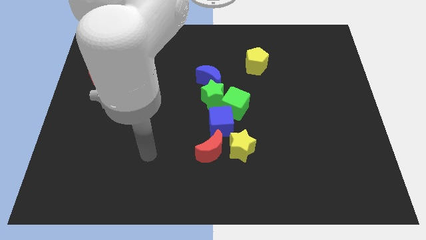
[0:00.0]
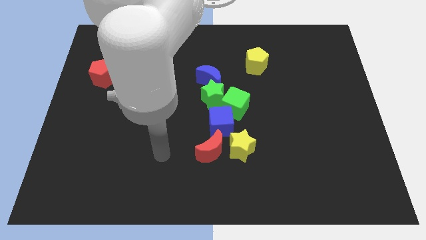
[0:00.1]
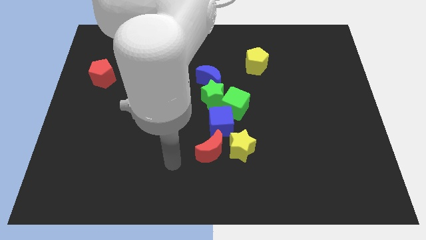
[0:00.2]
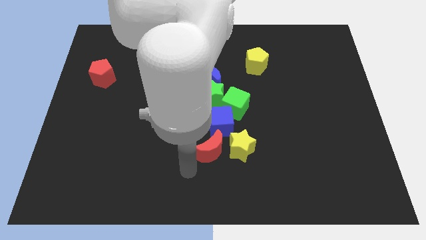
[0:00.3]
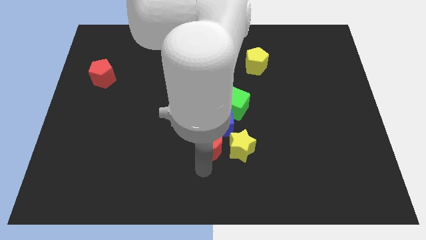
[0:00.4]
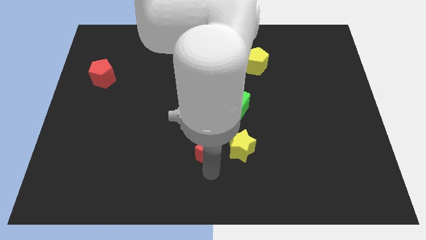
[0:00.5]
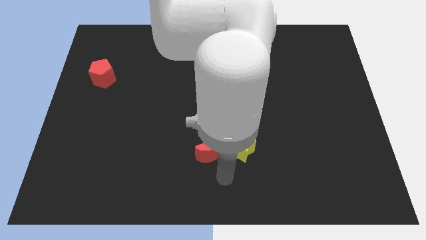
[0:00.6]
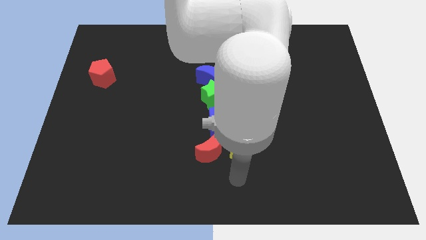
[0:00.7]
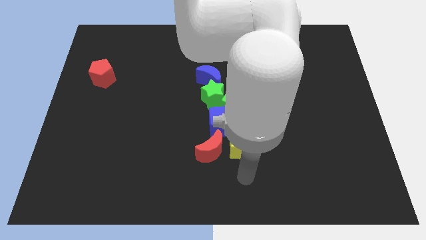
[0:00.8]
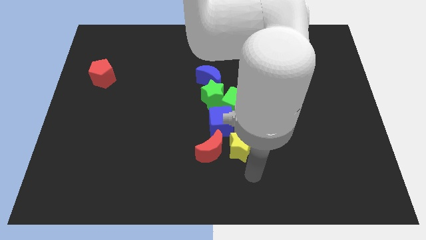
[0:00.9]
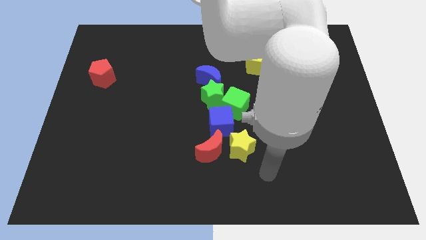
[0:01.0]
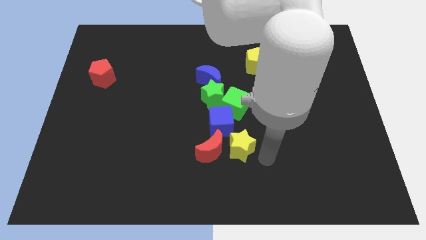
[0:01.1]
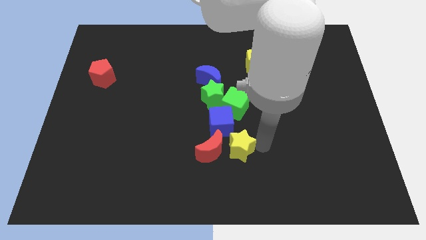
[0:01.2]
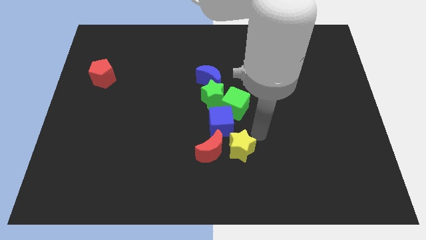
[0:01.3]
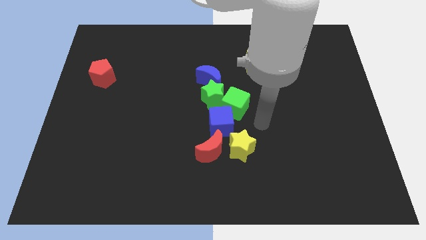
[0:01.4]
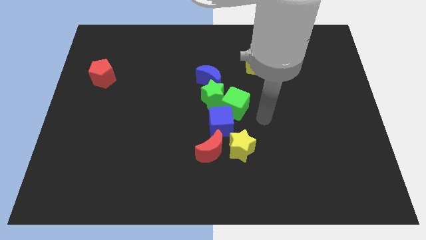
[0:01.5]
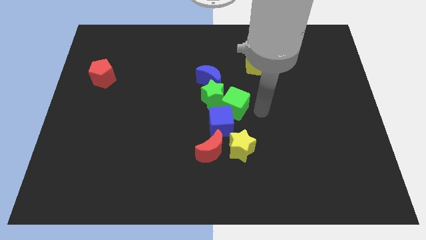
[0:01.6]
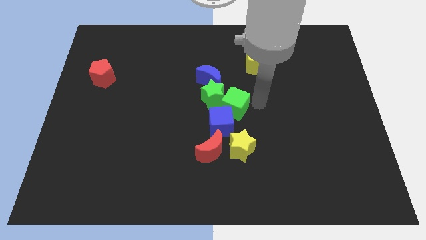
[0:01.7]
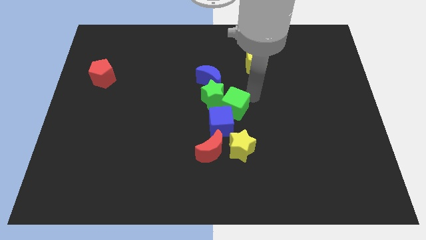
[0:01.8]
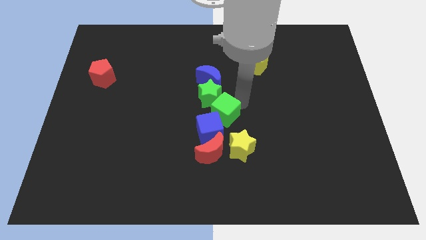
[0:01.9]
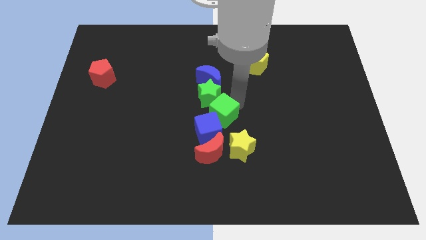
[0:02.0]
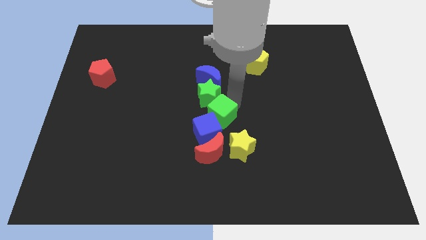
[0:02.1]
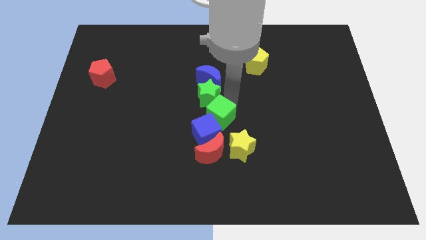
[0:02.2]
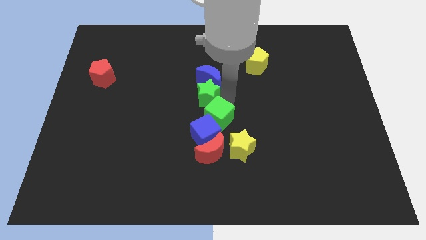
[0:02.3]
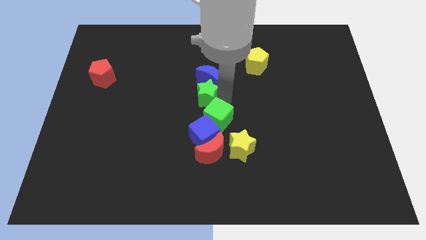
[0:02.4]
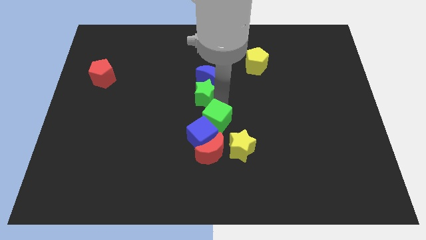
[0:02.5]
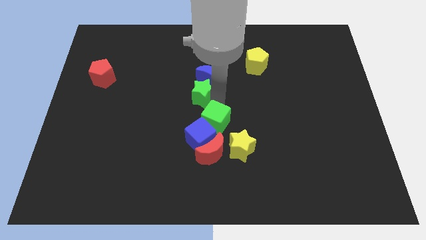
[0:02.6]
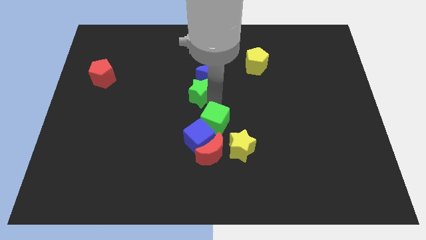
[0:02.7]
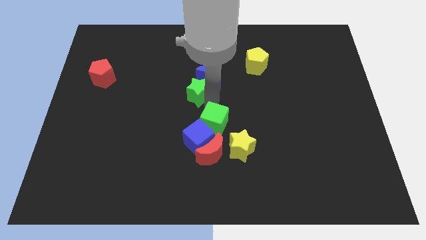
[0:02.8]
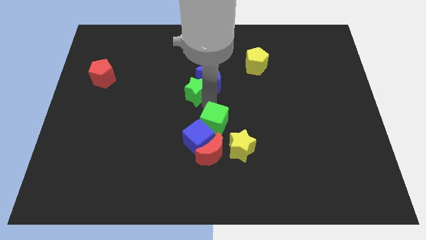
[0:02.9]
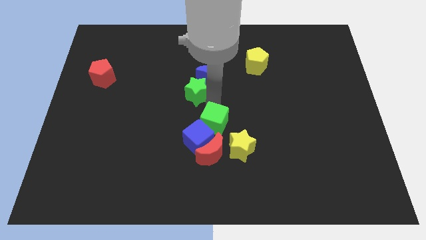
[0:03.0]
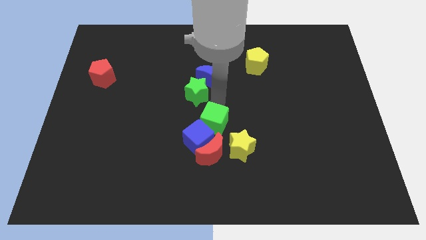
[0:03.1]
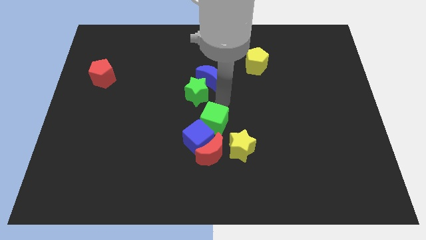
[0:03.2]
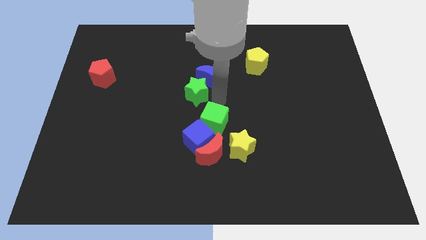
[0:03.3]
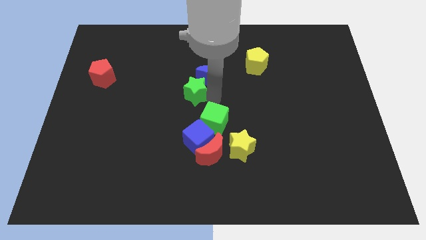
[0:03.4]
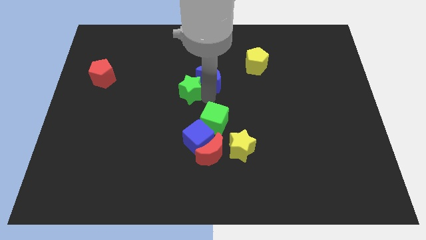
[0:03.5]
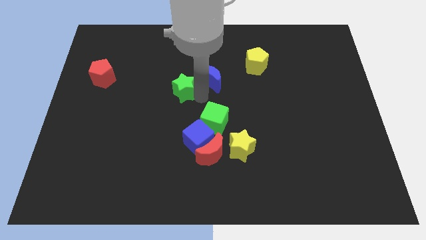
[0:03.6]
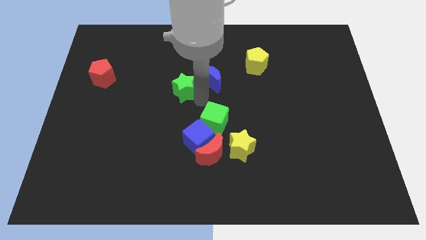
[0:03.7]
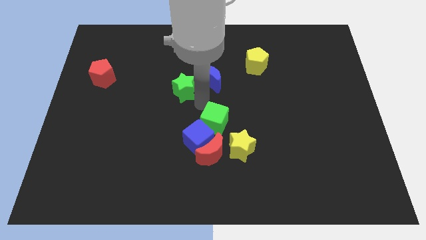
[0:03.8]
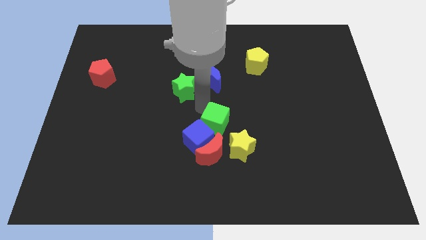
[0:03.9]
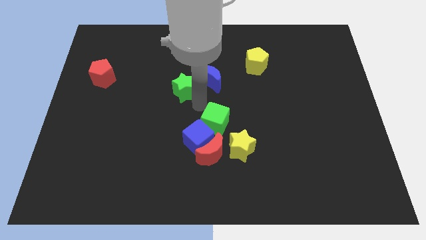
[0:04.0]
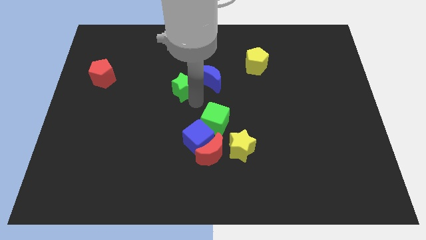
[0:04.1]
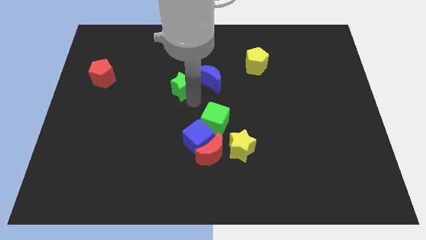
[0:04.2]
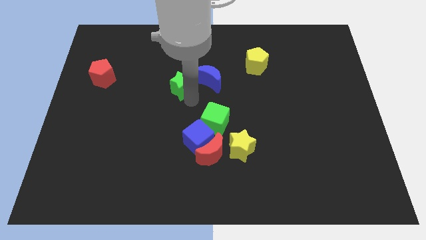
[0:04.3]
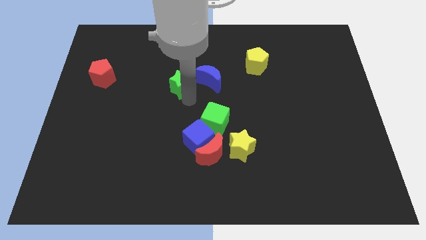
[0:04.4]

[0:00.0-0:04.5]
separate the green star from the clump

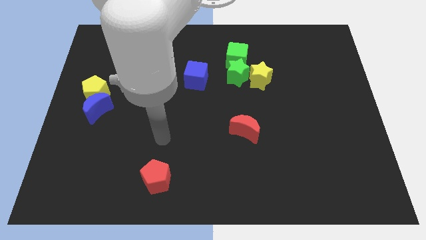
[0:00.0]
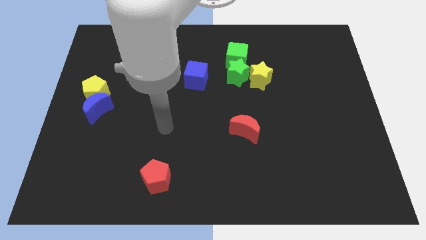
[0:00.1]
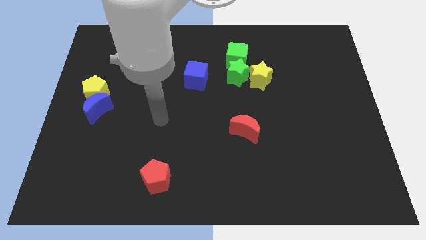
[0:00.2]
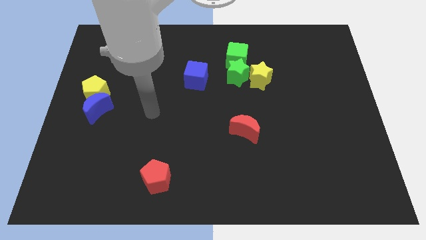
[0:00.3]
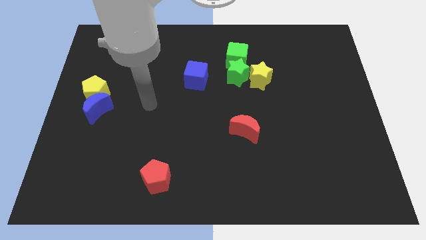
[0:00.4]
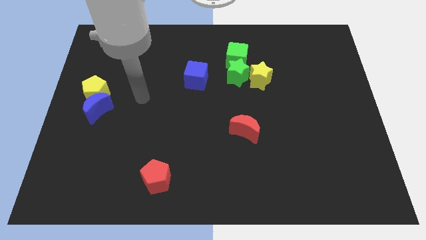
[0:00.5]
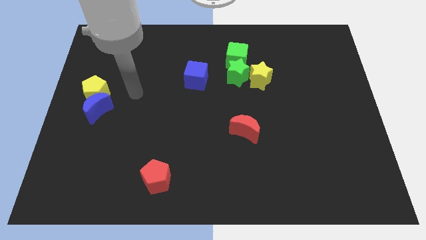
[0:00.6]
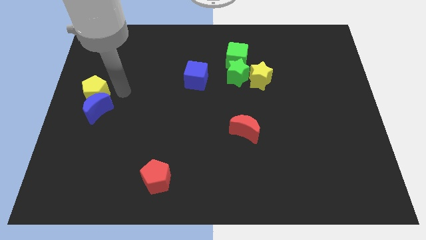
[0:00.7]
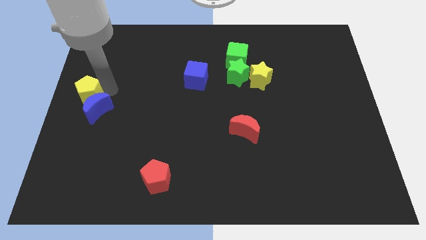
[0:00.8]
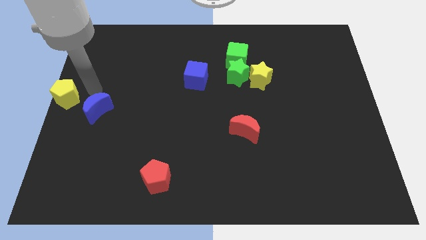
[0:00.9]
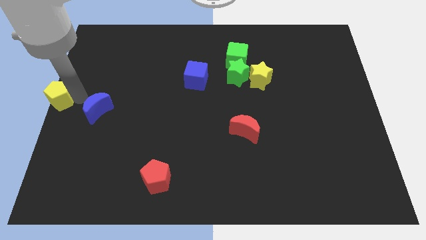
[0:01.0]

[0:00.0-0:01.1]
separate the blue moon from the yellow pentagon

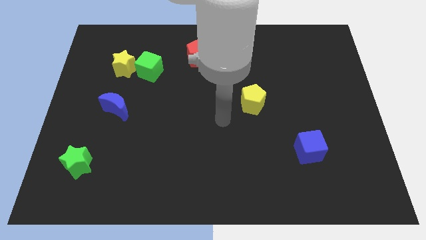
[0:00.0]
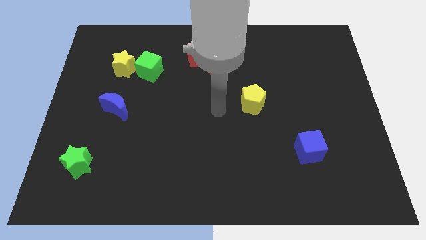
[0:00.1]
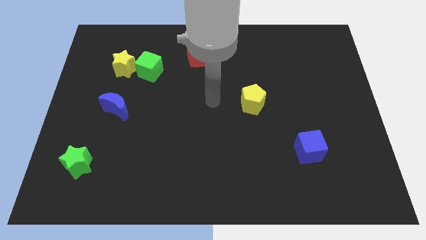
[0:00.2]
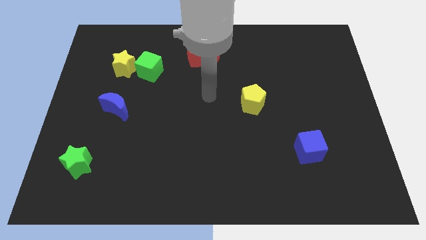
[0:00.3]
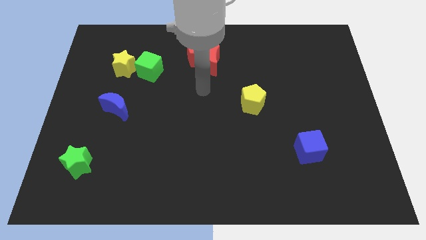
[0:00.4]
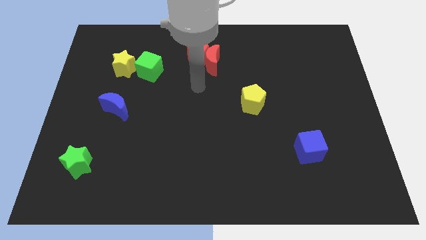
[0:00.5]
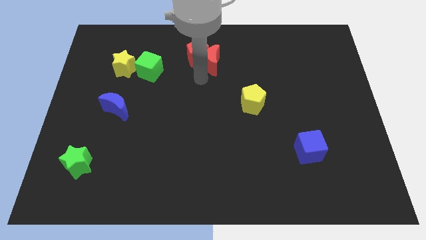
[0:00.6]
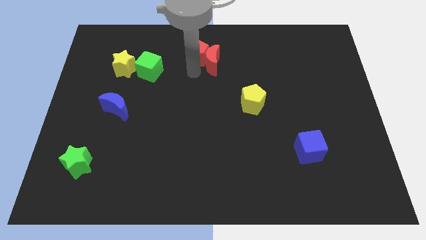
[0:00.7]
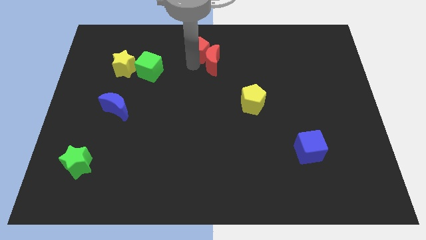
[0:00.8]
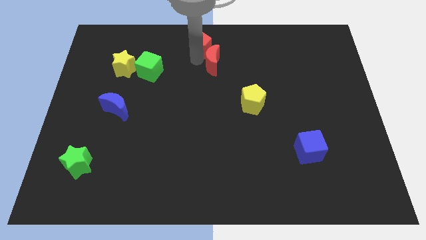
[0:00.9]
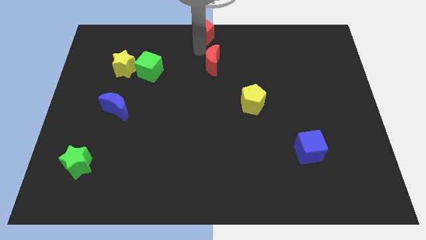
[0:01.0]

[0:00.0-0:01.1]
pull the red moon apart from the red pentagon

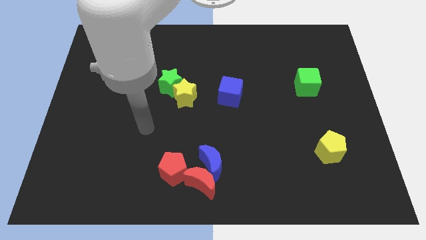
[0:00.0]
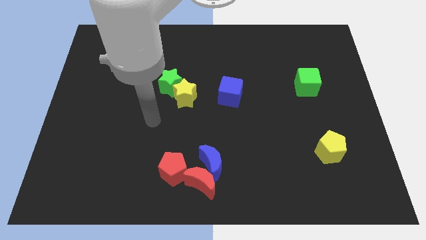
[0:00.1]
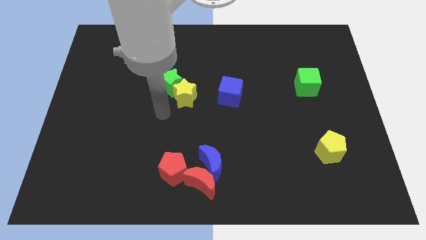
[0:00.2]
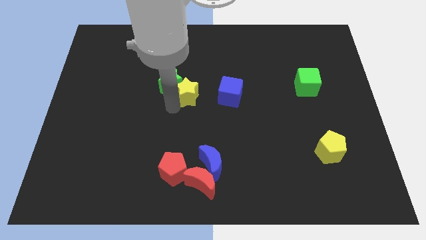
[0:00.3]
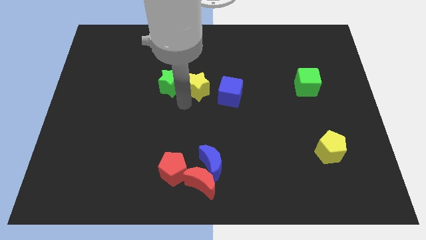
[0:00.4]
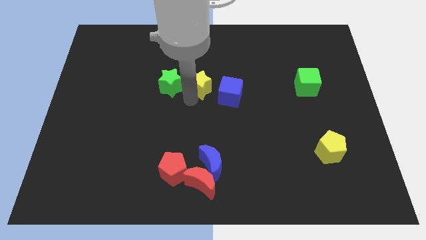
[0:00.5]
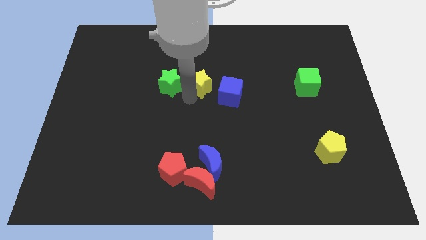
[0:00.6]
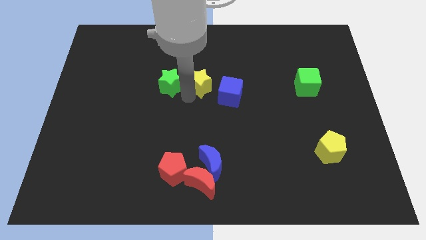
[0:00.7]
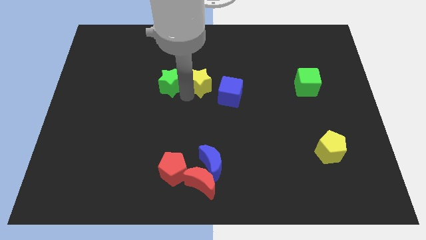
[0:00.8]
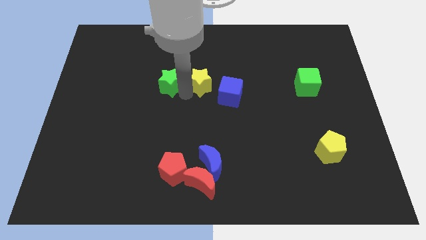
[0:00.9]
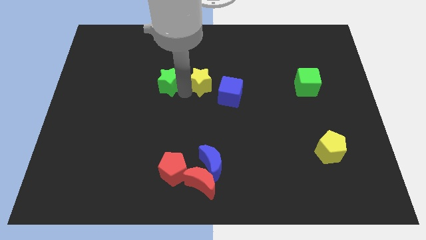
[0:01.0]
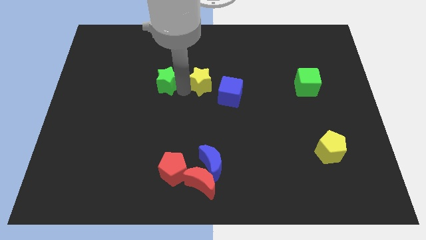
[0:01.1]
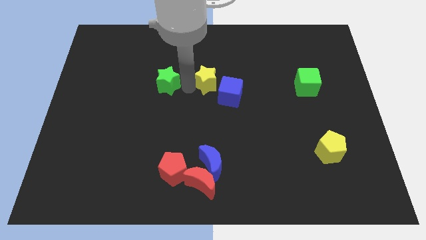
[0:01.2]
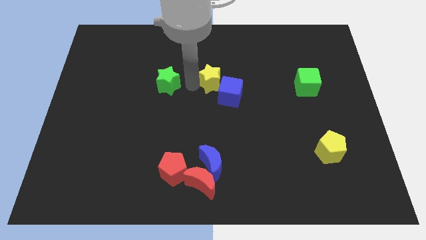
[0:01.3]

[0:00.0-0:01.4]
pull the green star apart from the yellow star

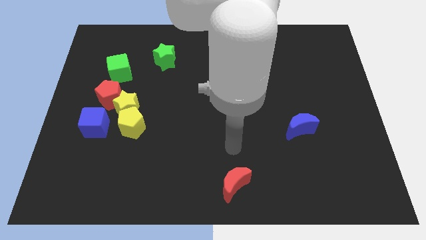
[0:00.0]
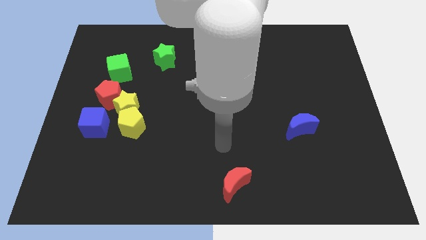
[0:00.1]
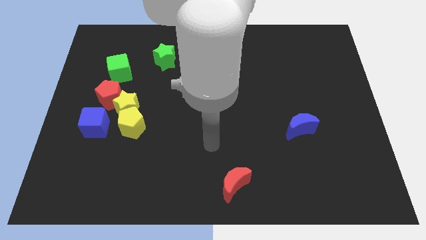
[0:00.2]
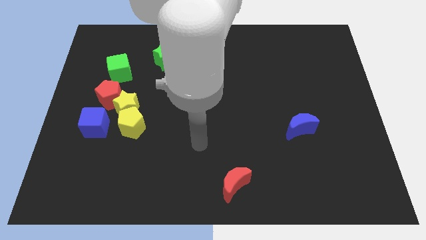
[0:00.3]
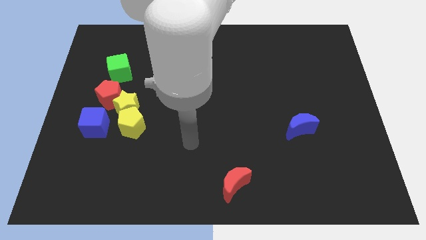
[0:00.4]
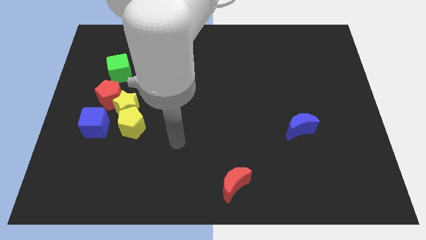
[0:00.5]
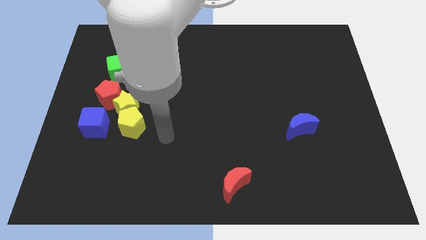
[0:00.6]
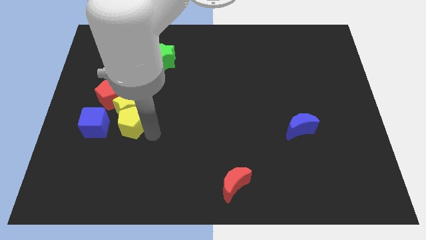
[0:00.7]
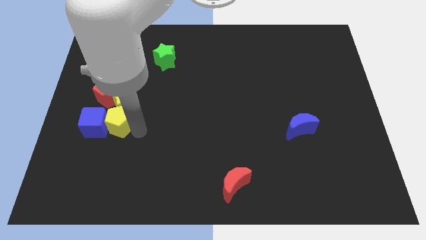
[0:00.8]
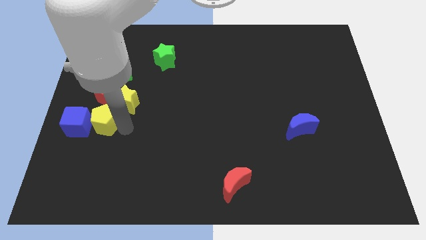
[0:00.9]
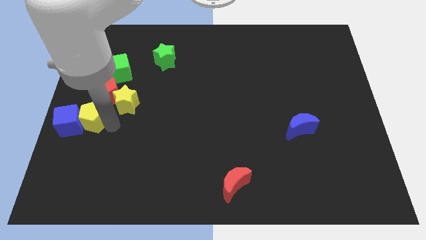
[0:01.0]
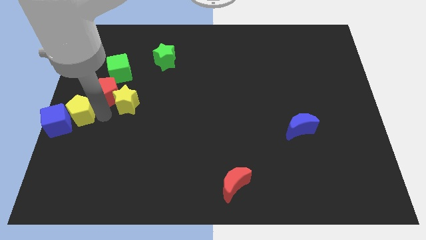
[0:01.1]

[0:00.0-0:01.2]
move the yellow star away from the clump
